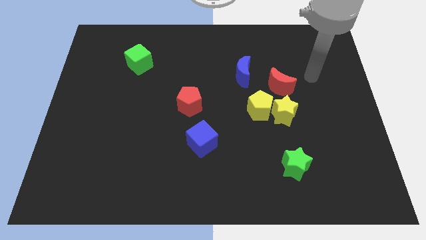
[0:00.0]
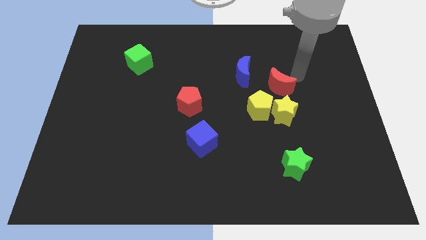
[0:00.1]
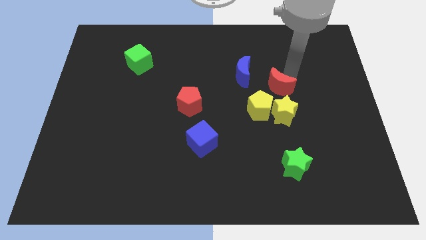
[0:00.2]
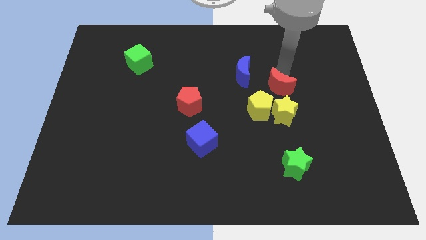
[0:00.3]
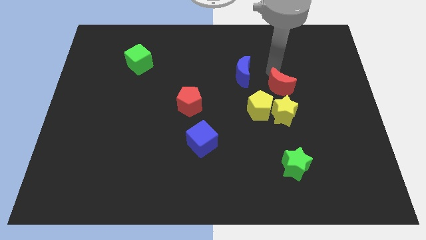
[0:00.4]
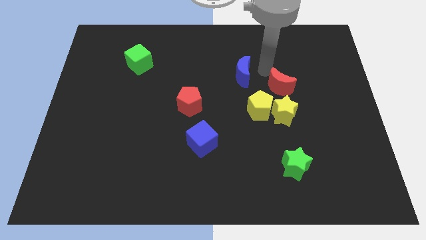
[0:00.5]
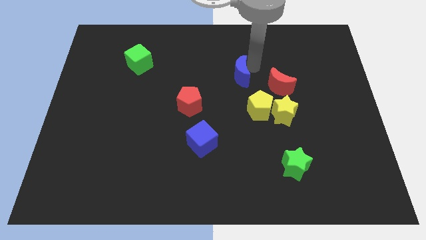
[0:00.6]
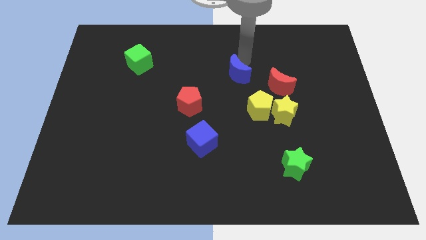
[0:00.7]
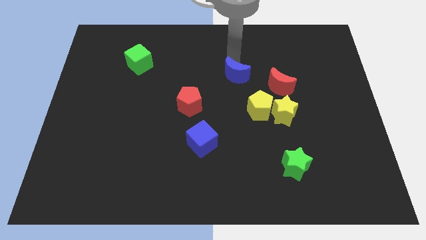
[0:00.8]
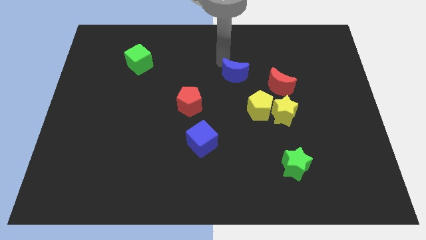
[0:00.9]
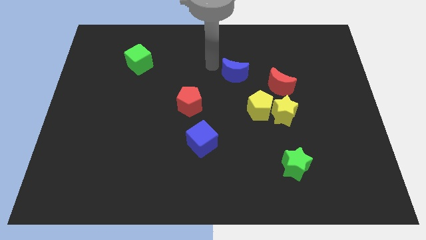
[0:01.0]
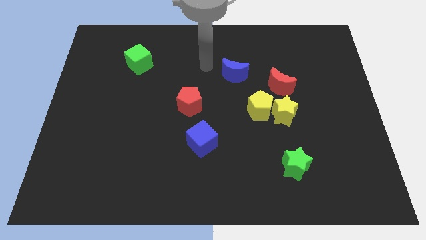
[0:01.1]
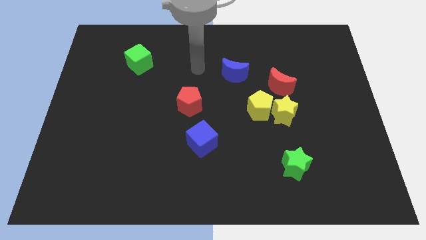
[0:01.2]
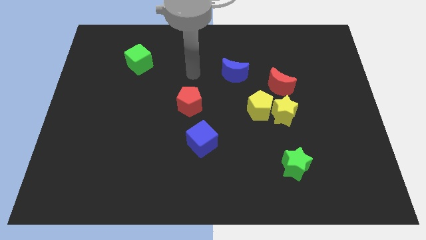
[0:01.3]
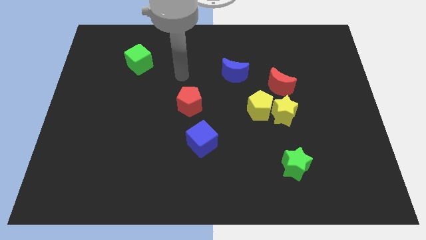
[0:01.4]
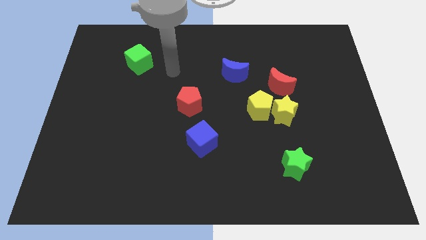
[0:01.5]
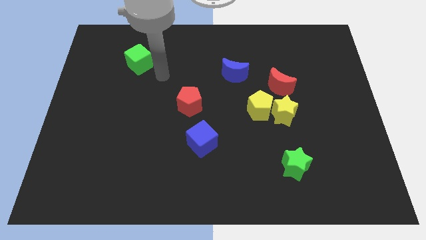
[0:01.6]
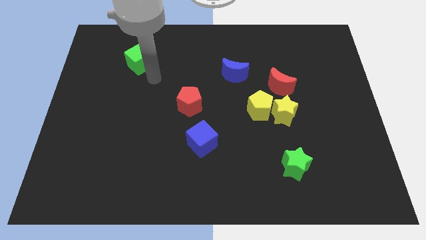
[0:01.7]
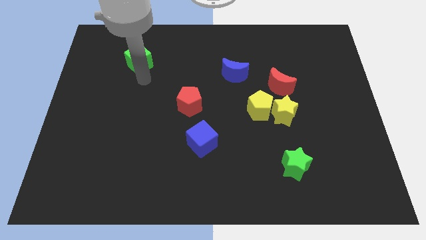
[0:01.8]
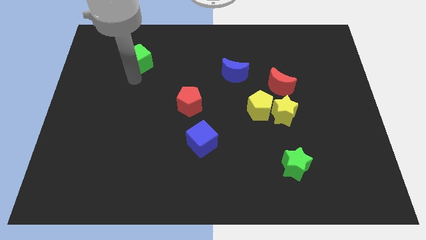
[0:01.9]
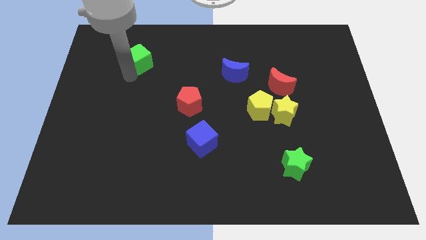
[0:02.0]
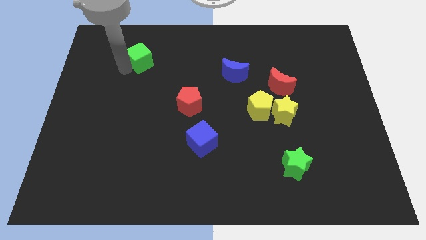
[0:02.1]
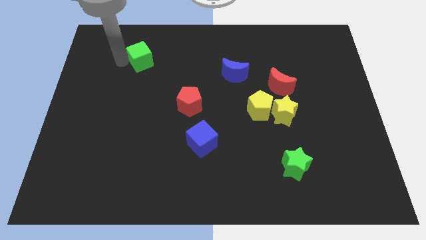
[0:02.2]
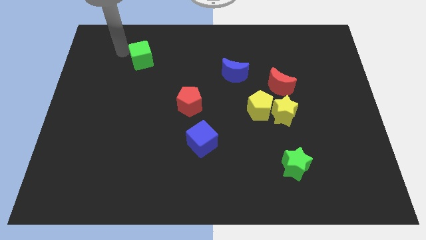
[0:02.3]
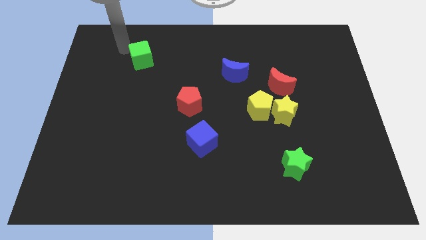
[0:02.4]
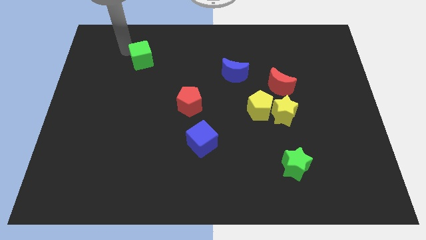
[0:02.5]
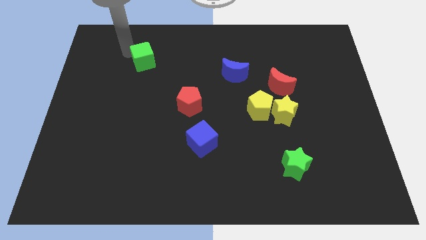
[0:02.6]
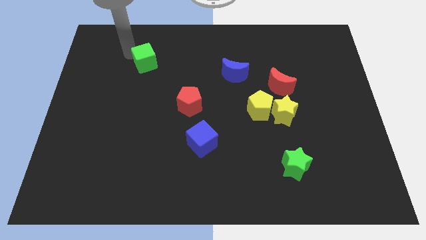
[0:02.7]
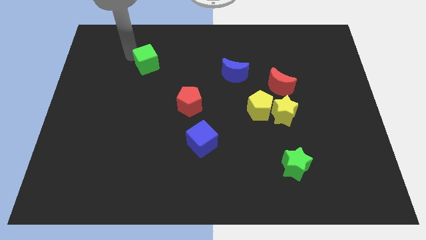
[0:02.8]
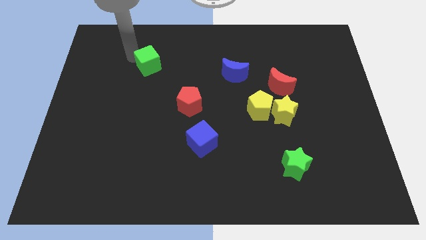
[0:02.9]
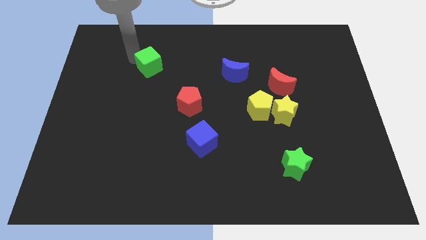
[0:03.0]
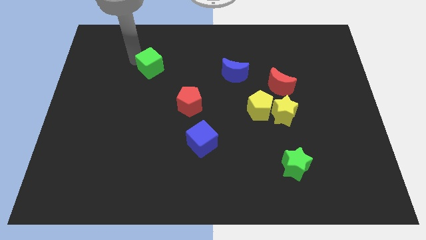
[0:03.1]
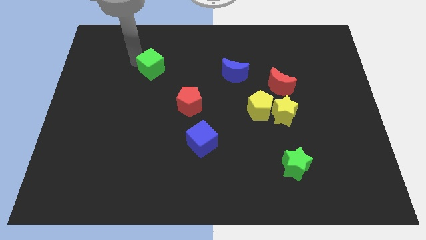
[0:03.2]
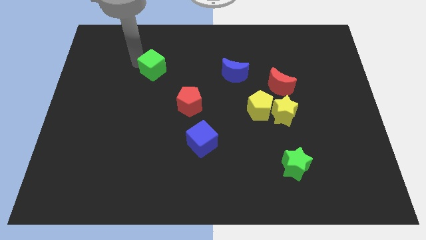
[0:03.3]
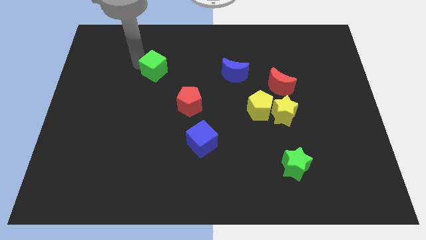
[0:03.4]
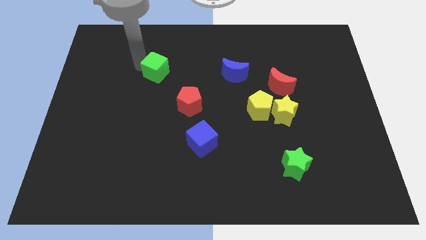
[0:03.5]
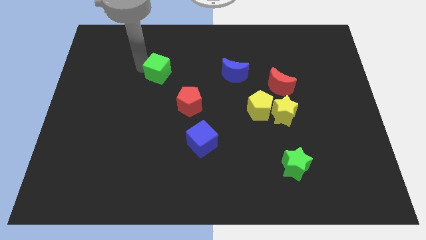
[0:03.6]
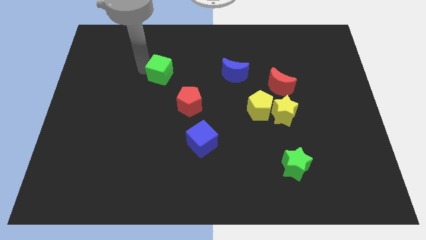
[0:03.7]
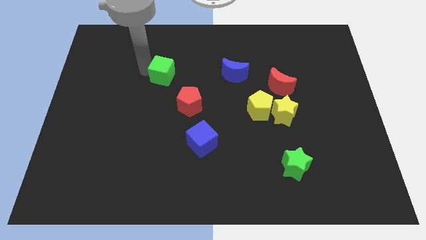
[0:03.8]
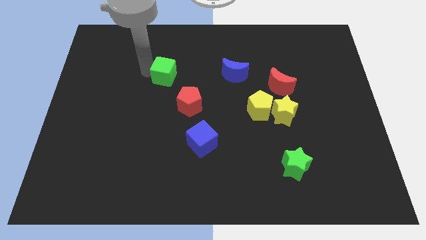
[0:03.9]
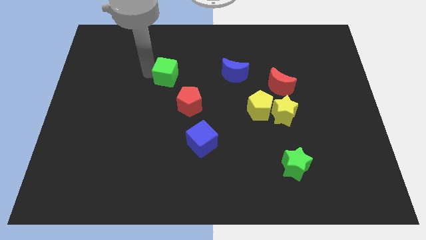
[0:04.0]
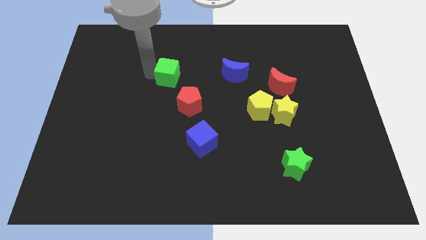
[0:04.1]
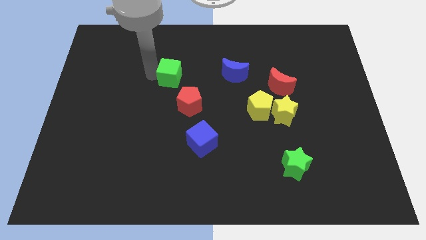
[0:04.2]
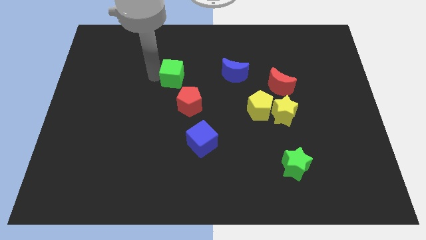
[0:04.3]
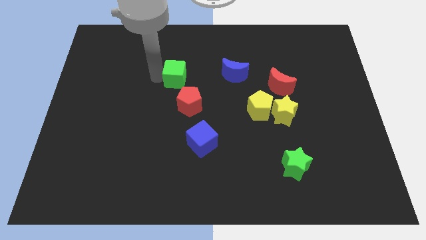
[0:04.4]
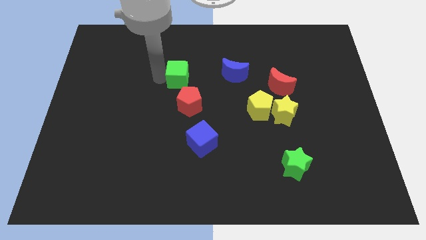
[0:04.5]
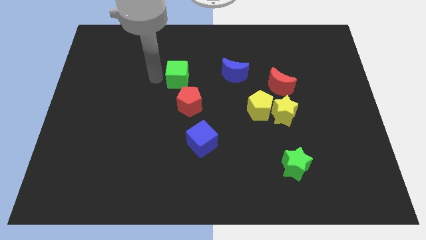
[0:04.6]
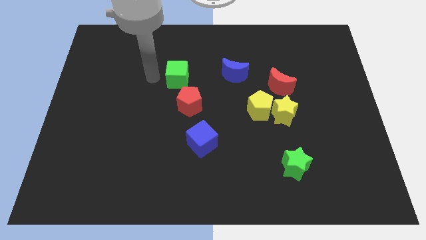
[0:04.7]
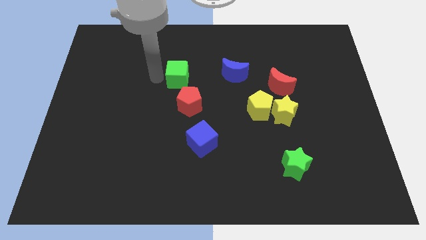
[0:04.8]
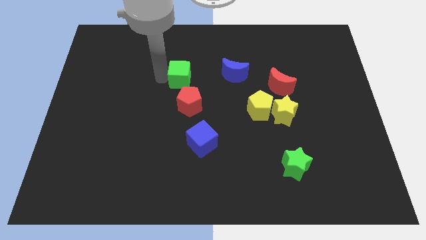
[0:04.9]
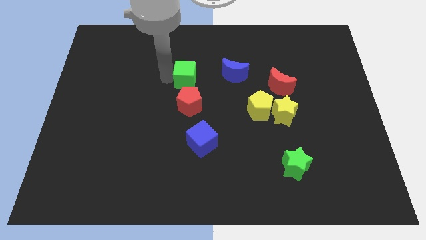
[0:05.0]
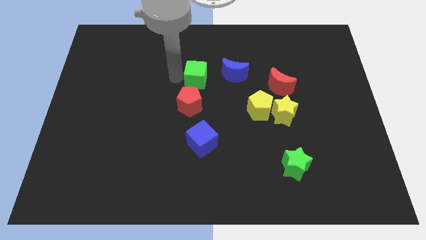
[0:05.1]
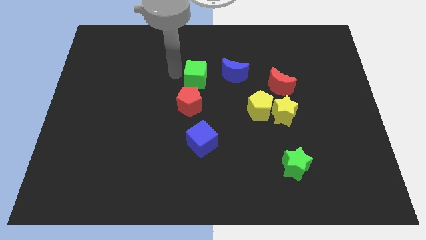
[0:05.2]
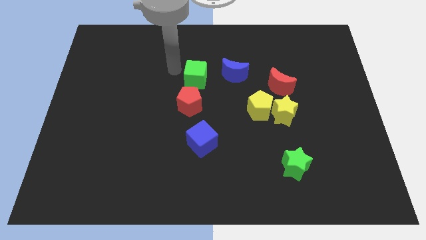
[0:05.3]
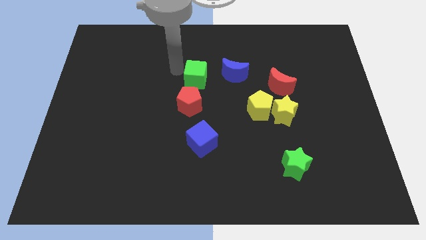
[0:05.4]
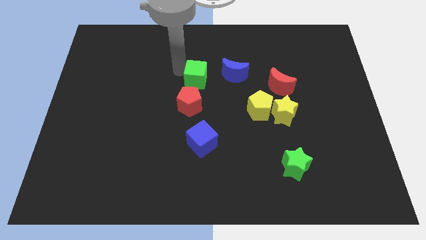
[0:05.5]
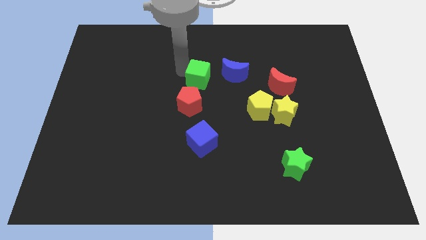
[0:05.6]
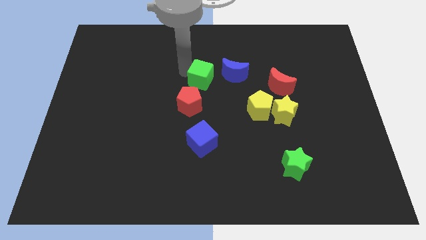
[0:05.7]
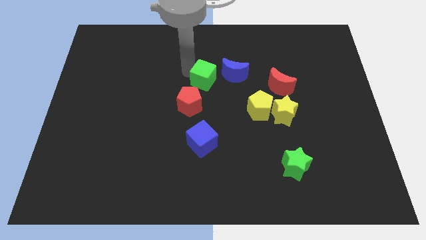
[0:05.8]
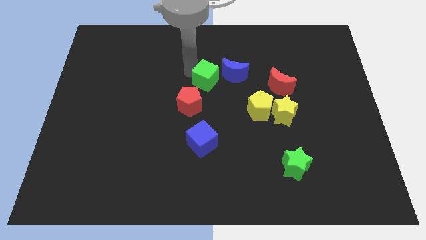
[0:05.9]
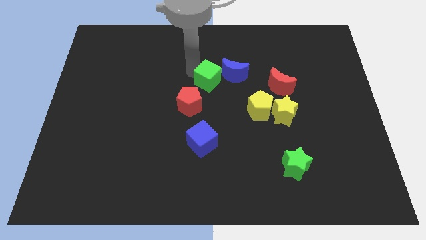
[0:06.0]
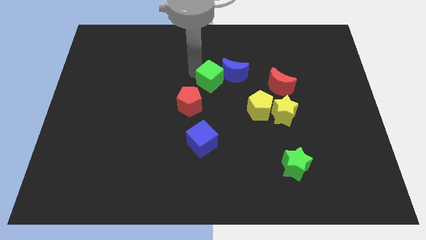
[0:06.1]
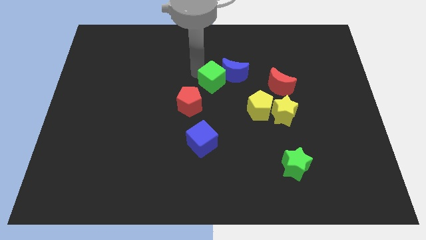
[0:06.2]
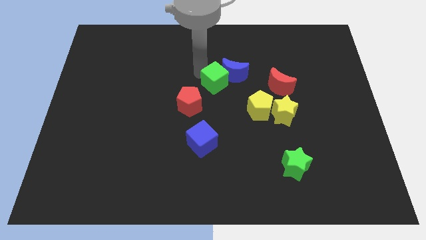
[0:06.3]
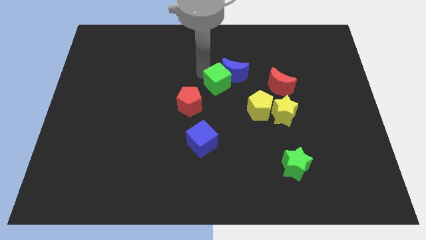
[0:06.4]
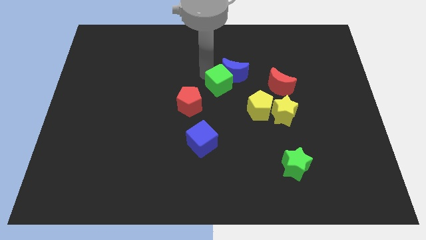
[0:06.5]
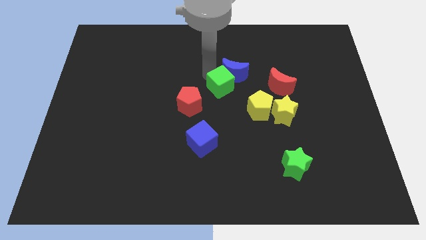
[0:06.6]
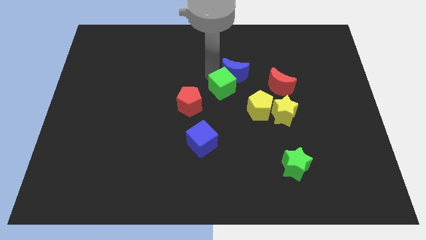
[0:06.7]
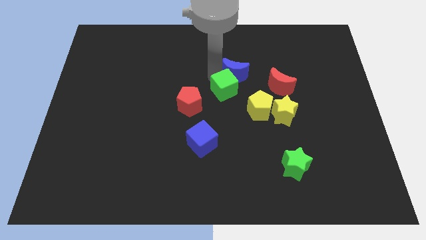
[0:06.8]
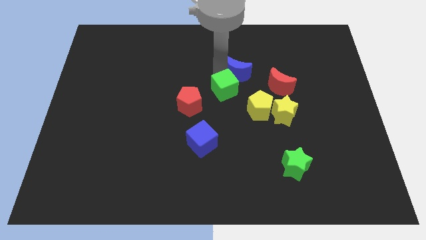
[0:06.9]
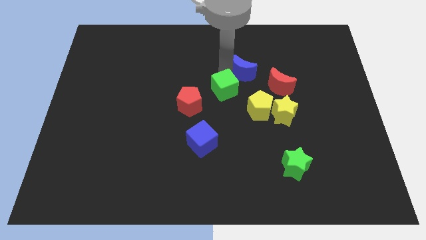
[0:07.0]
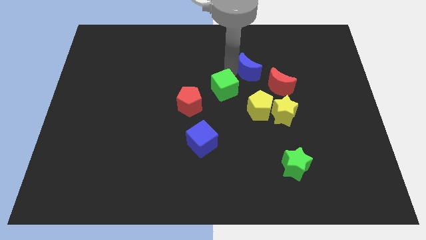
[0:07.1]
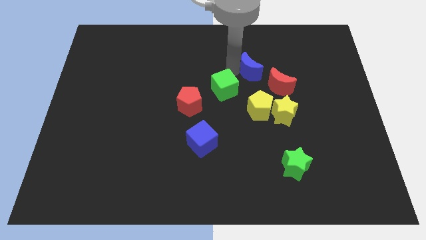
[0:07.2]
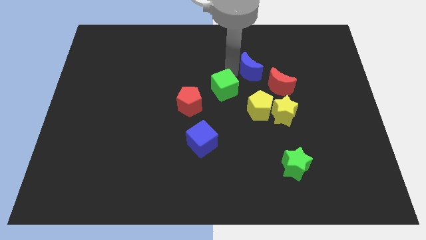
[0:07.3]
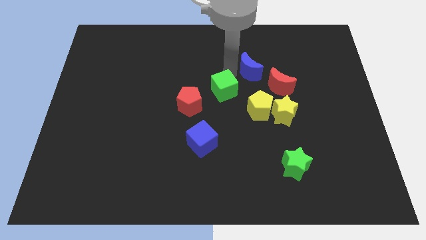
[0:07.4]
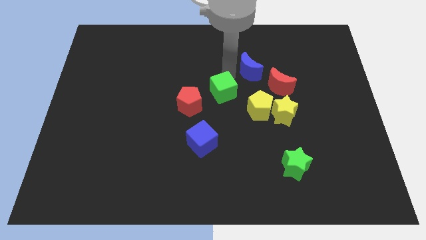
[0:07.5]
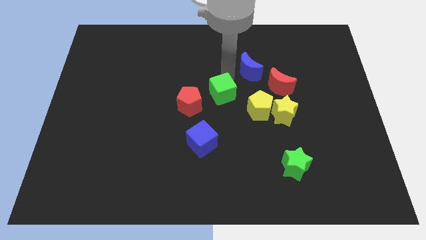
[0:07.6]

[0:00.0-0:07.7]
slide the green cube down and to the right diagonally
